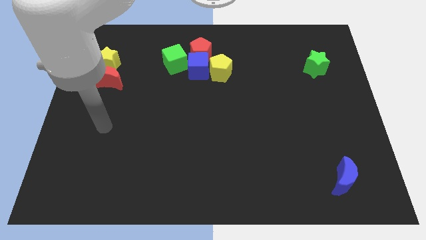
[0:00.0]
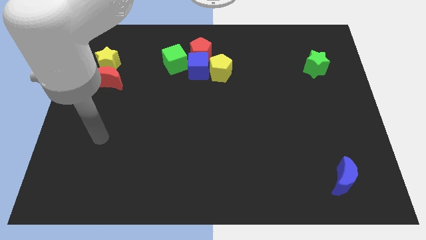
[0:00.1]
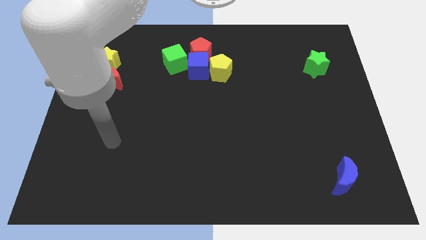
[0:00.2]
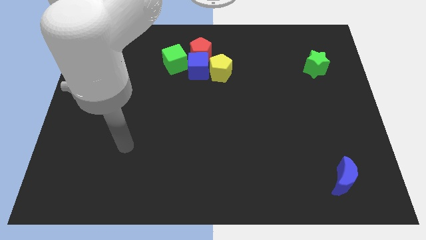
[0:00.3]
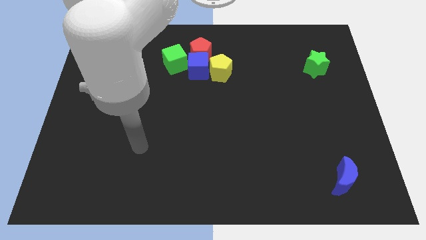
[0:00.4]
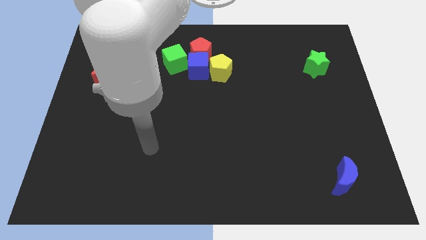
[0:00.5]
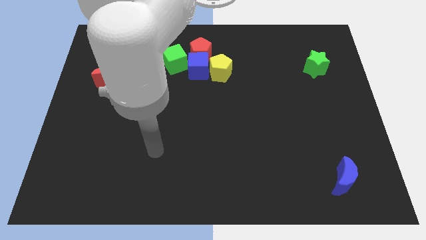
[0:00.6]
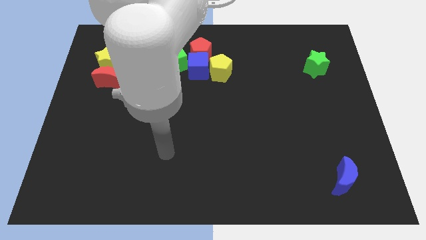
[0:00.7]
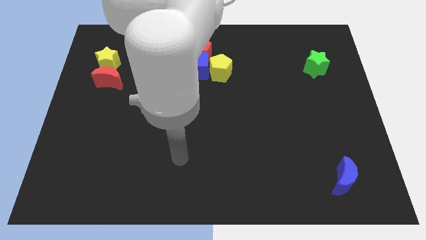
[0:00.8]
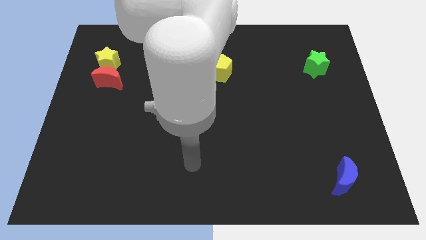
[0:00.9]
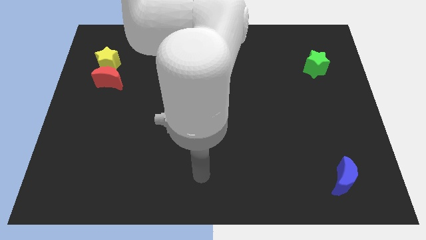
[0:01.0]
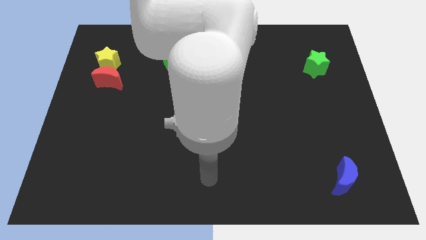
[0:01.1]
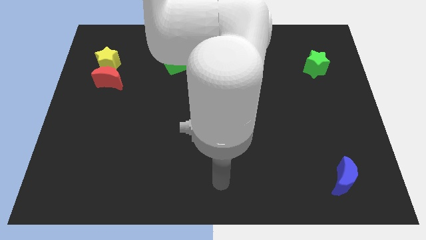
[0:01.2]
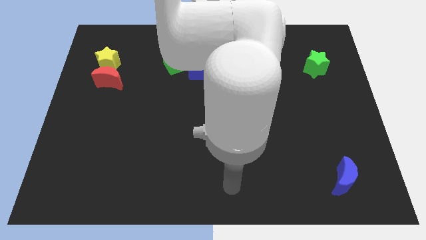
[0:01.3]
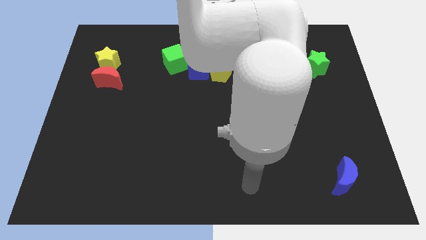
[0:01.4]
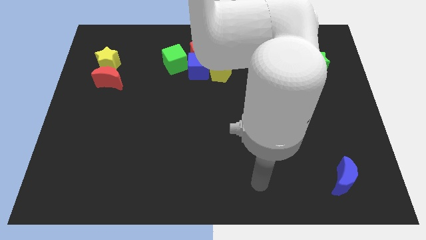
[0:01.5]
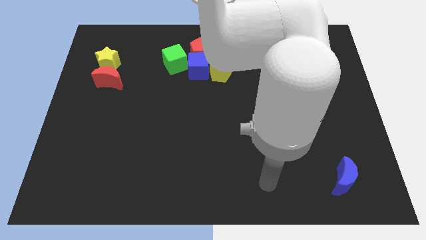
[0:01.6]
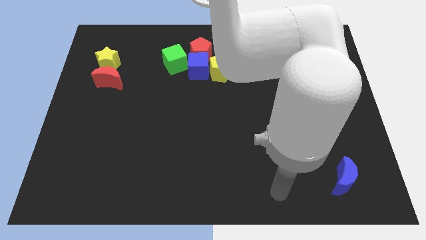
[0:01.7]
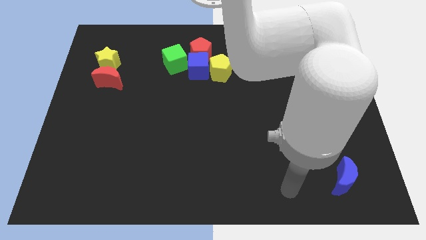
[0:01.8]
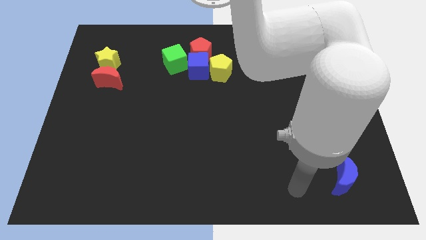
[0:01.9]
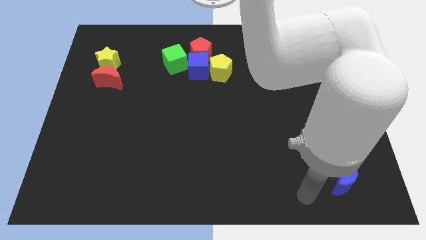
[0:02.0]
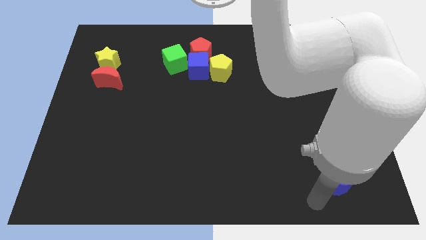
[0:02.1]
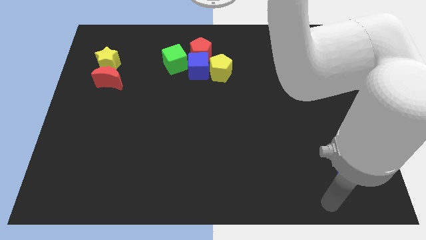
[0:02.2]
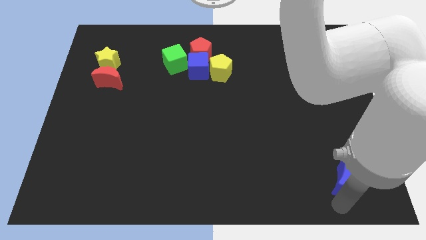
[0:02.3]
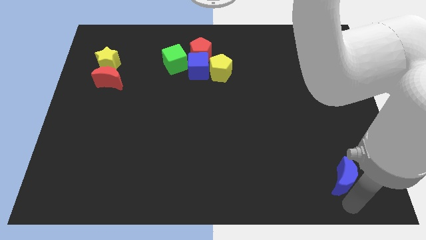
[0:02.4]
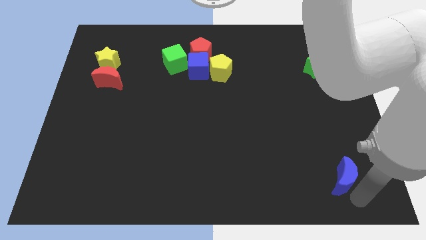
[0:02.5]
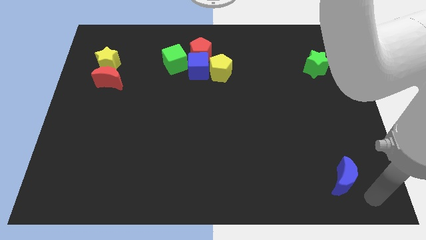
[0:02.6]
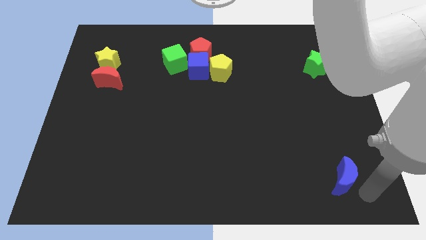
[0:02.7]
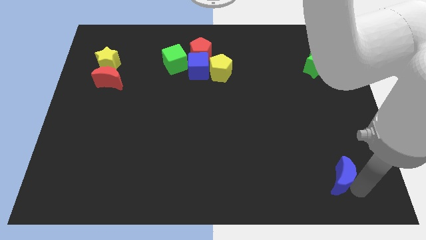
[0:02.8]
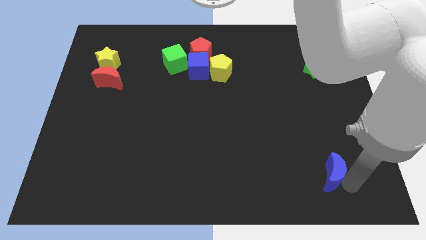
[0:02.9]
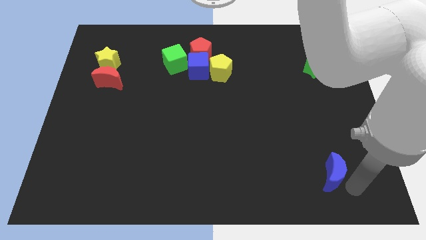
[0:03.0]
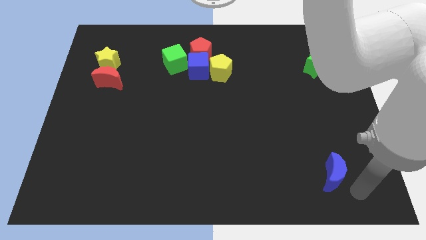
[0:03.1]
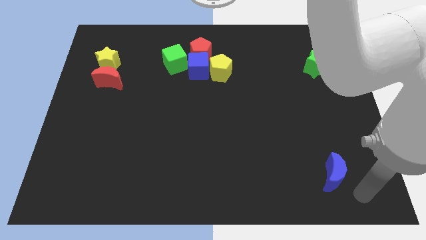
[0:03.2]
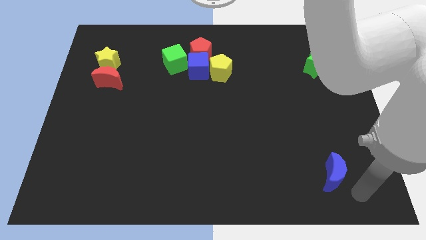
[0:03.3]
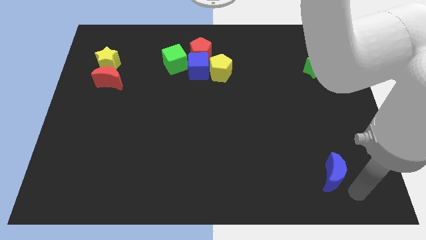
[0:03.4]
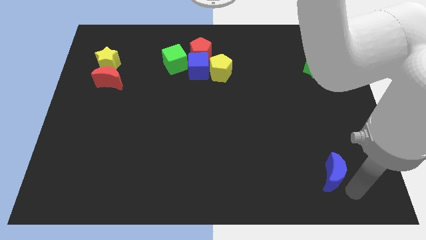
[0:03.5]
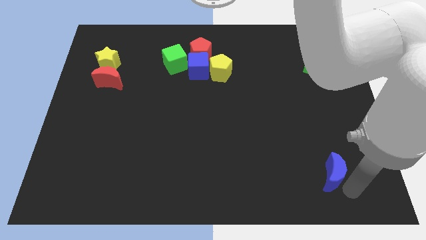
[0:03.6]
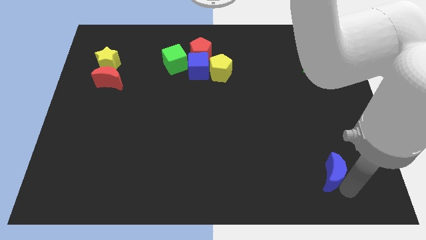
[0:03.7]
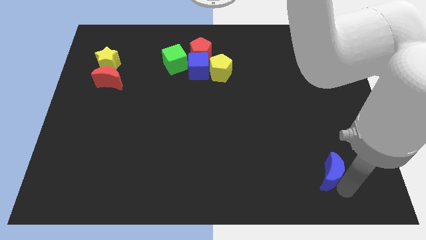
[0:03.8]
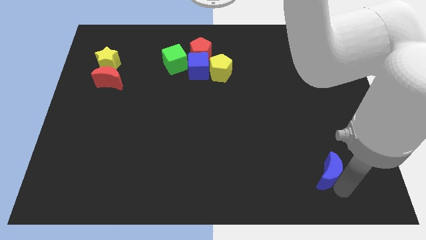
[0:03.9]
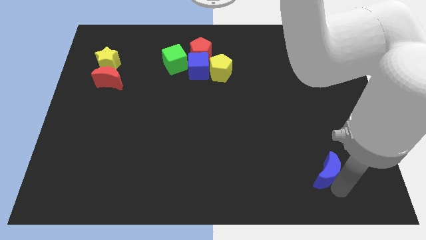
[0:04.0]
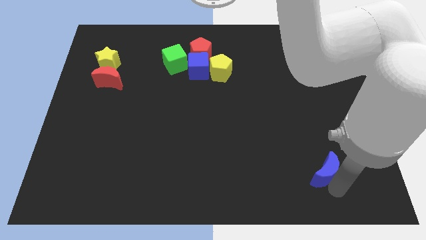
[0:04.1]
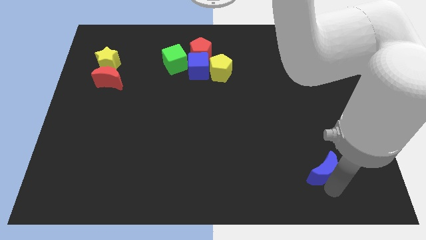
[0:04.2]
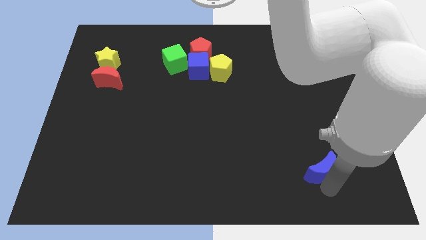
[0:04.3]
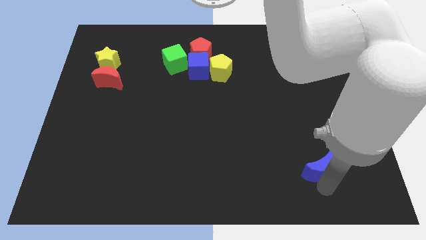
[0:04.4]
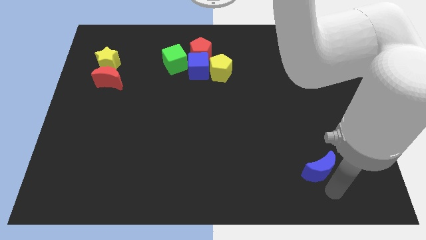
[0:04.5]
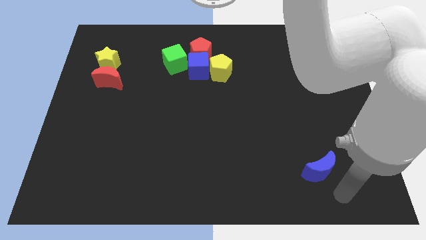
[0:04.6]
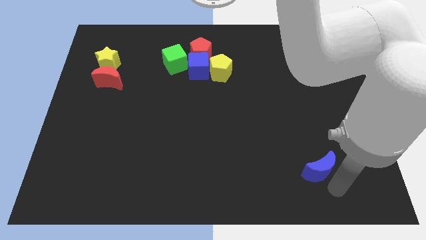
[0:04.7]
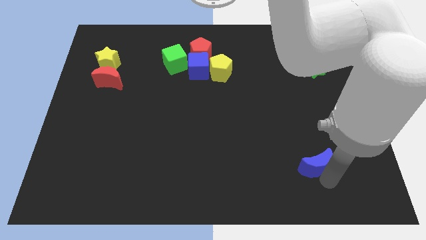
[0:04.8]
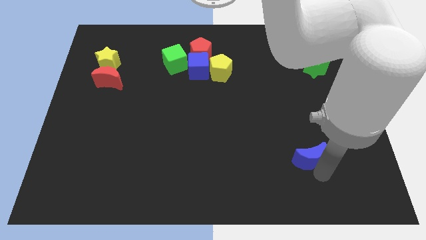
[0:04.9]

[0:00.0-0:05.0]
slide the blue moon somewhat upwards and to the left diagonally

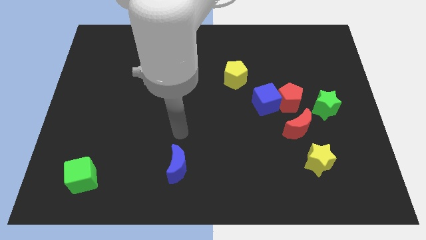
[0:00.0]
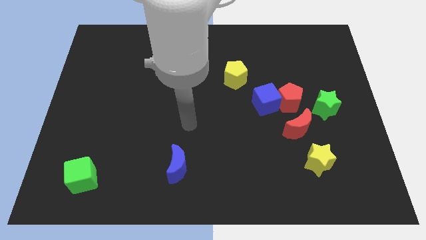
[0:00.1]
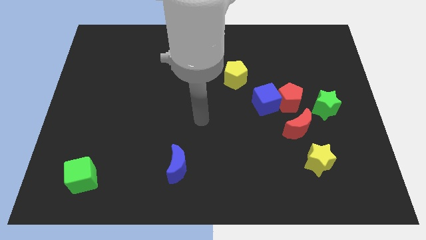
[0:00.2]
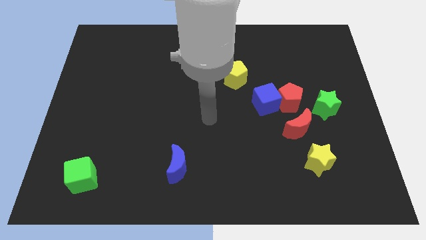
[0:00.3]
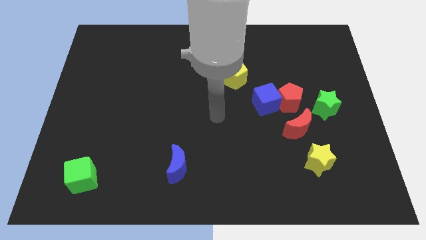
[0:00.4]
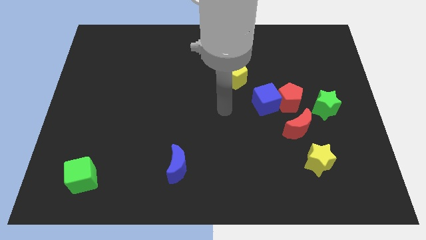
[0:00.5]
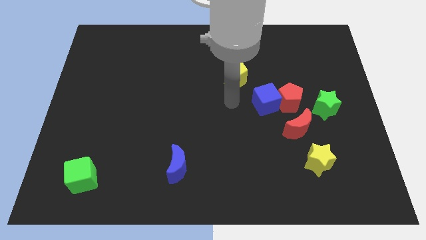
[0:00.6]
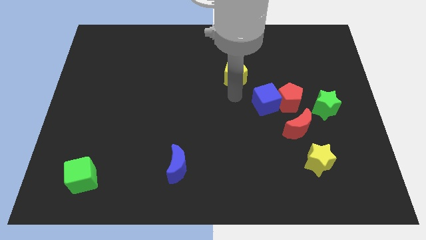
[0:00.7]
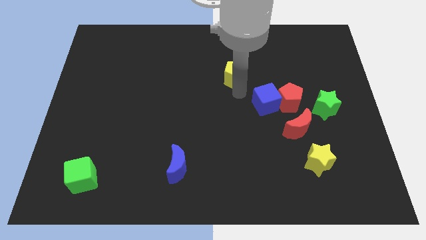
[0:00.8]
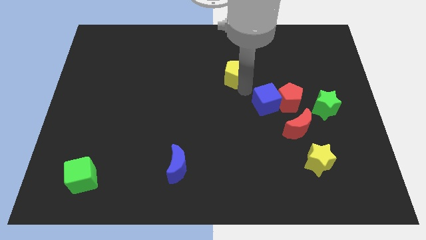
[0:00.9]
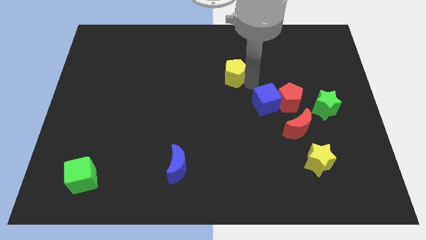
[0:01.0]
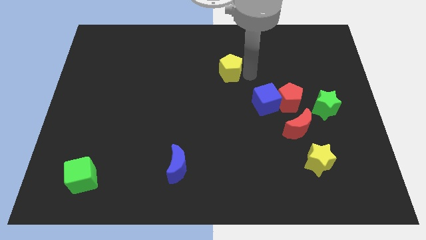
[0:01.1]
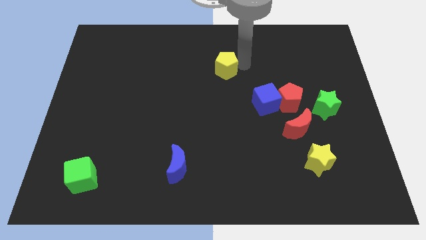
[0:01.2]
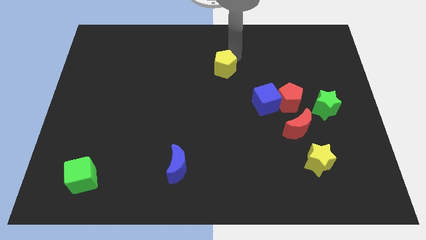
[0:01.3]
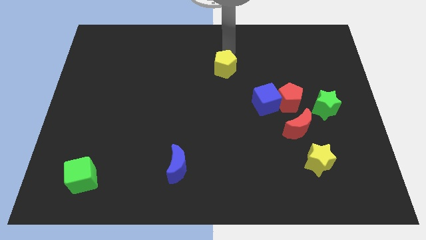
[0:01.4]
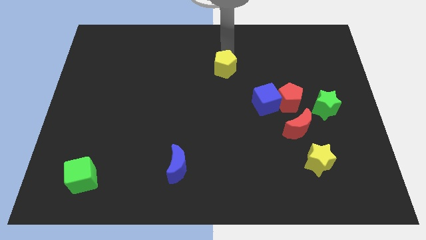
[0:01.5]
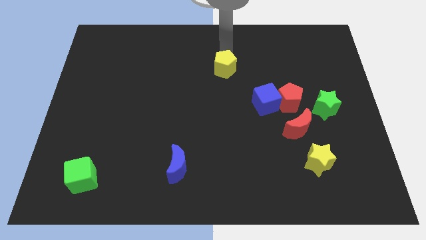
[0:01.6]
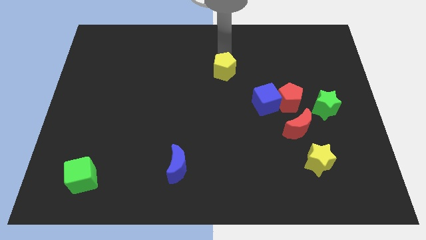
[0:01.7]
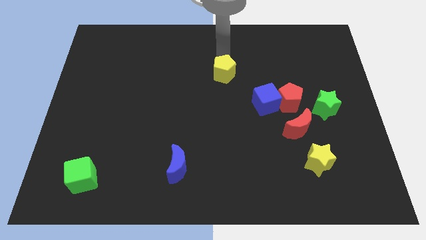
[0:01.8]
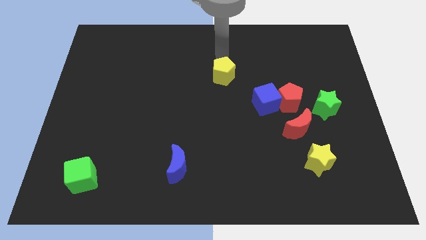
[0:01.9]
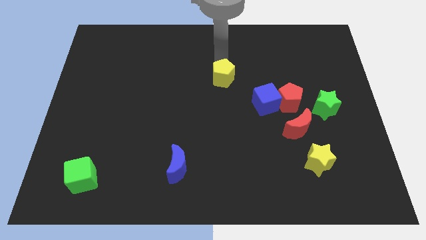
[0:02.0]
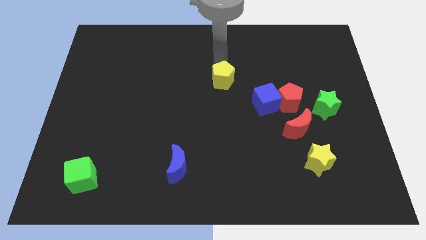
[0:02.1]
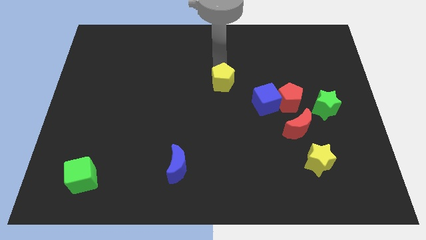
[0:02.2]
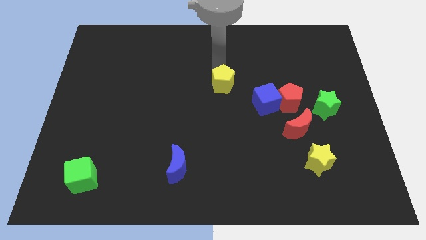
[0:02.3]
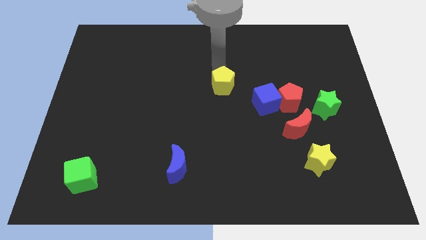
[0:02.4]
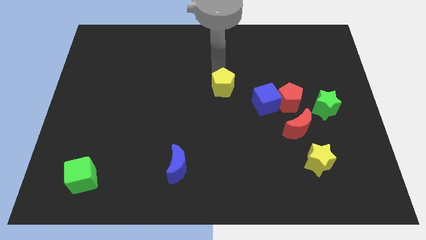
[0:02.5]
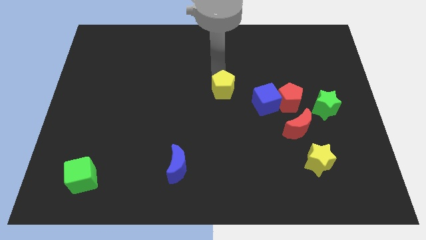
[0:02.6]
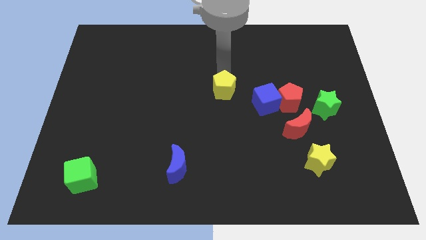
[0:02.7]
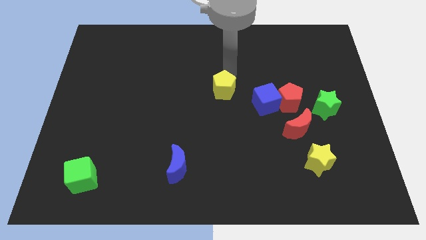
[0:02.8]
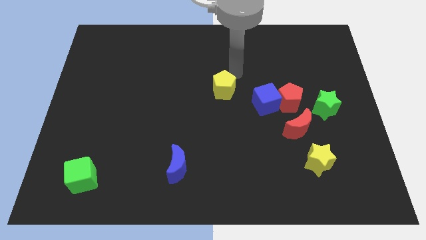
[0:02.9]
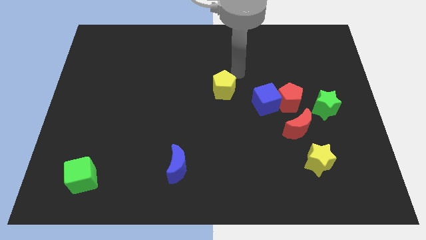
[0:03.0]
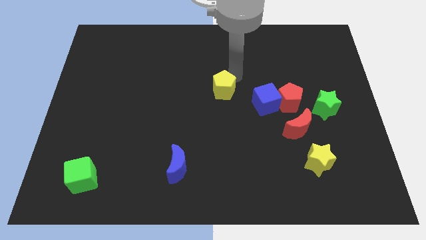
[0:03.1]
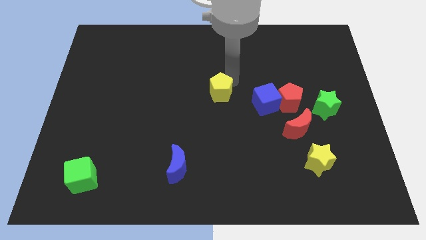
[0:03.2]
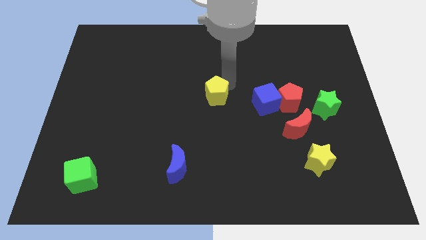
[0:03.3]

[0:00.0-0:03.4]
slide the yellow pentagon down and to the left slightly
